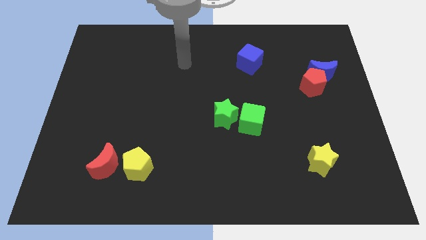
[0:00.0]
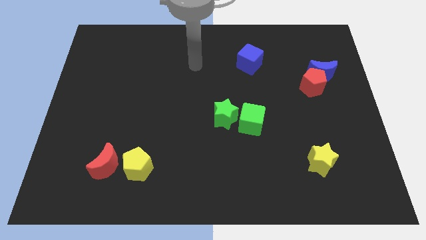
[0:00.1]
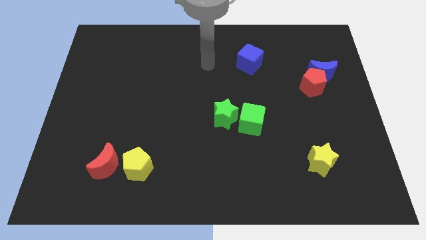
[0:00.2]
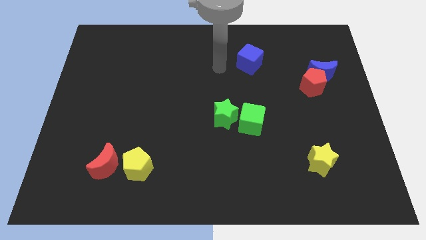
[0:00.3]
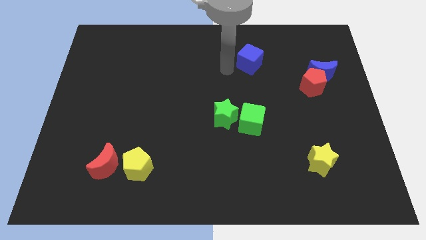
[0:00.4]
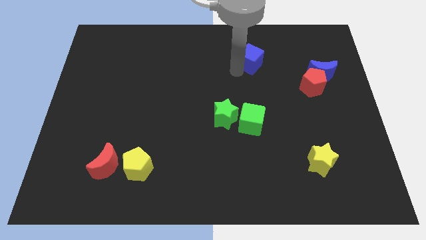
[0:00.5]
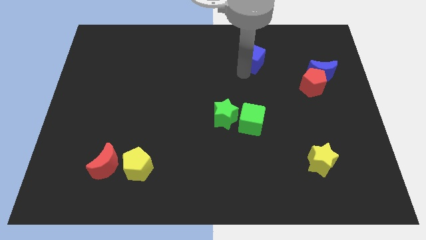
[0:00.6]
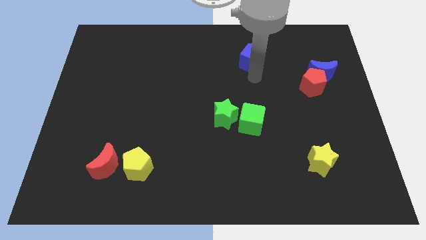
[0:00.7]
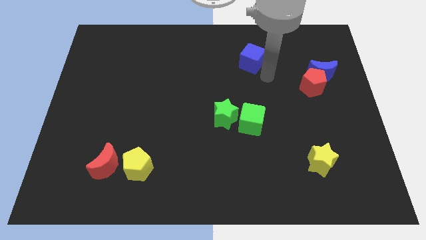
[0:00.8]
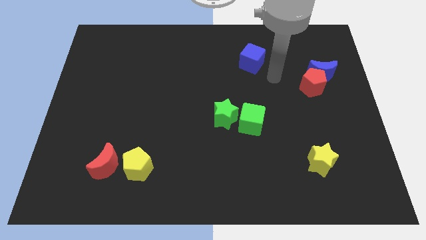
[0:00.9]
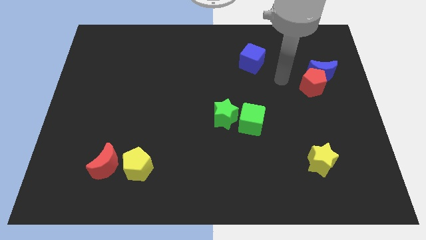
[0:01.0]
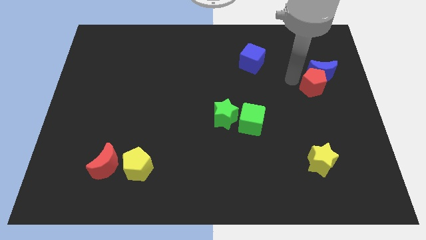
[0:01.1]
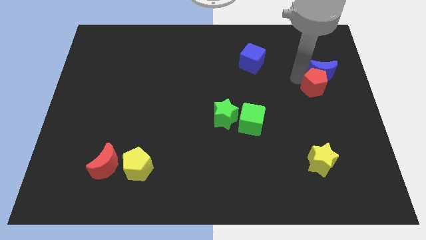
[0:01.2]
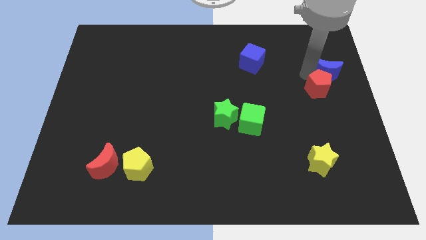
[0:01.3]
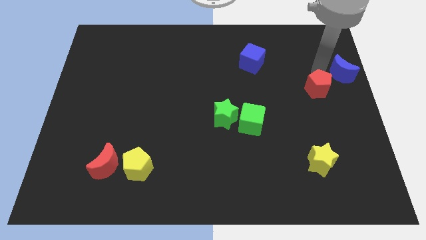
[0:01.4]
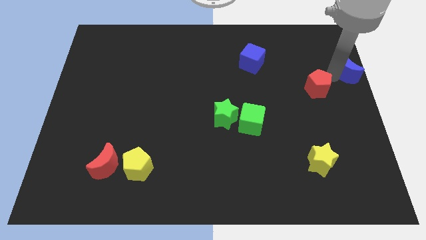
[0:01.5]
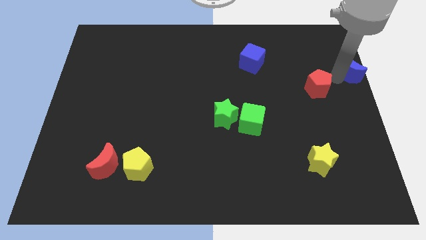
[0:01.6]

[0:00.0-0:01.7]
pull the red pentagon apart from the blue moon

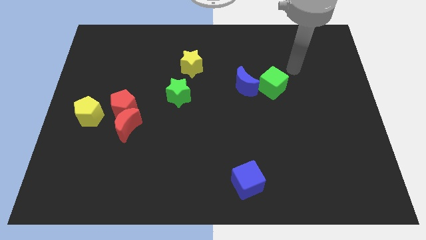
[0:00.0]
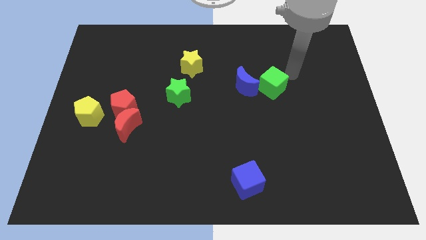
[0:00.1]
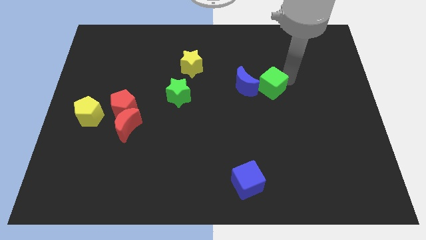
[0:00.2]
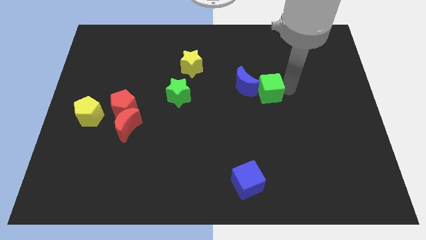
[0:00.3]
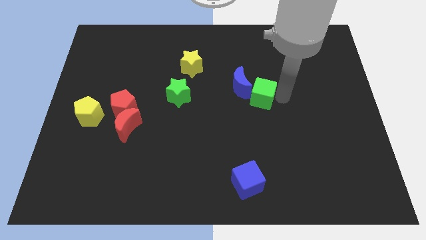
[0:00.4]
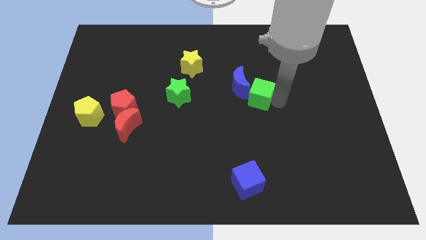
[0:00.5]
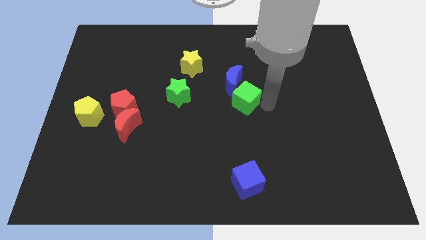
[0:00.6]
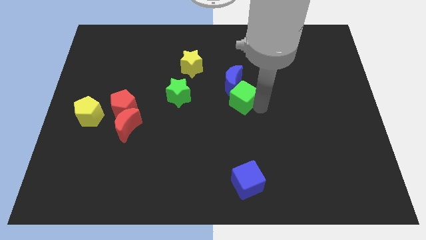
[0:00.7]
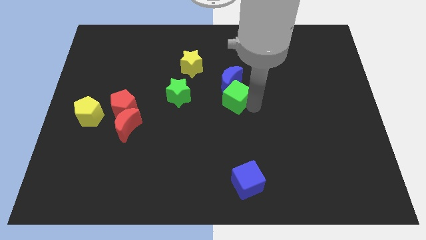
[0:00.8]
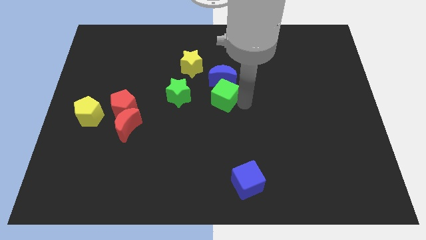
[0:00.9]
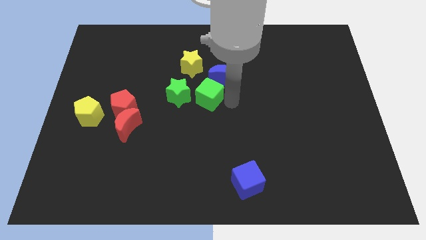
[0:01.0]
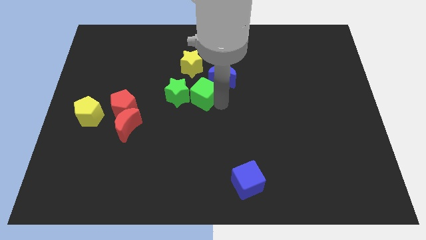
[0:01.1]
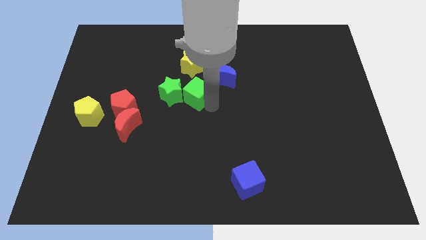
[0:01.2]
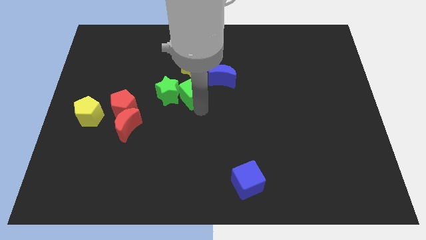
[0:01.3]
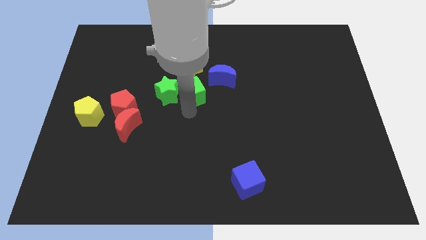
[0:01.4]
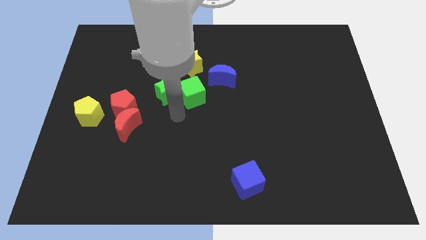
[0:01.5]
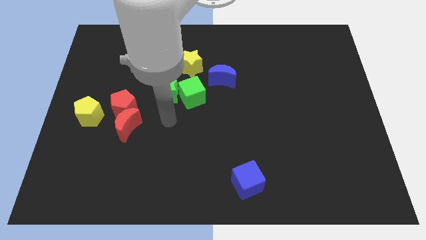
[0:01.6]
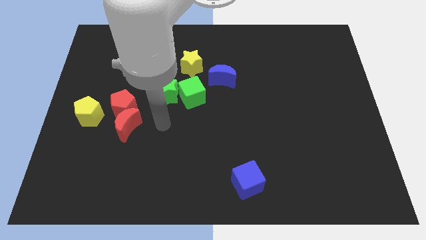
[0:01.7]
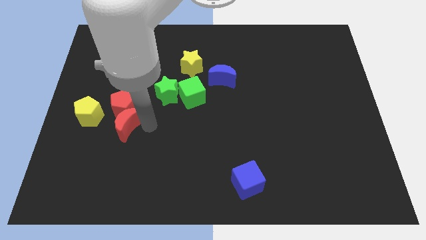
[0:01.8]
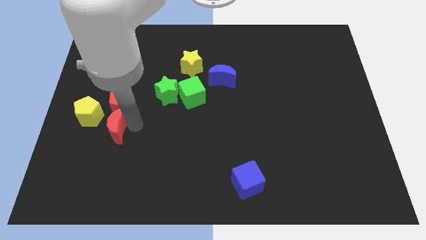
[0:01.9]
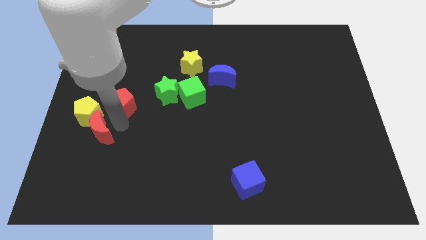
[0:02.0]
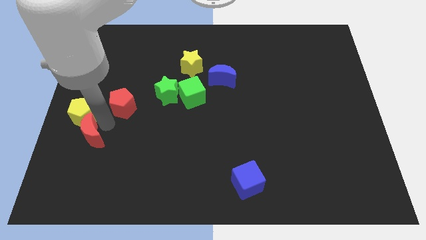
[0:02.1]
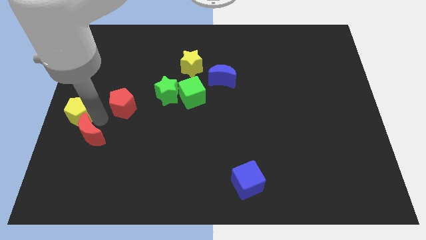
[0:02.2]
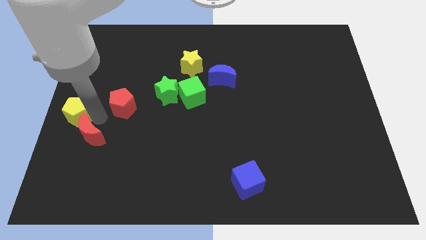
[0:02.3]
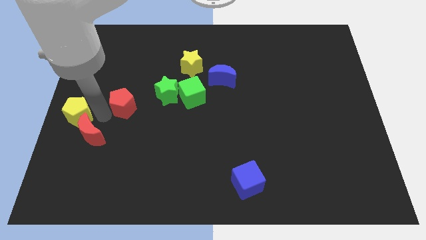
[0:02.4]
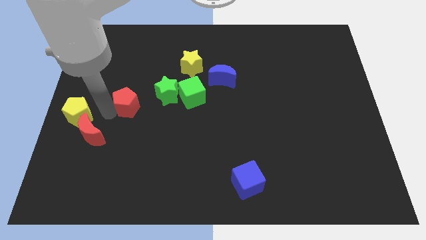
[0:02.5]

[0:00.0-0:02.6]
separate the red pentagon from the red moon and yellow pentagon

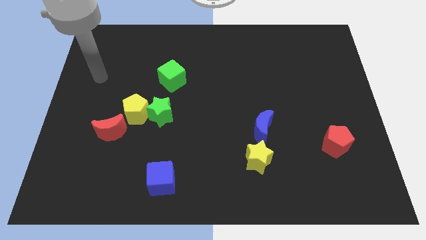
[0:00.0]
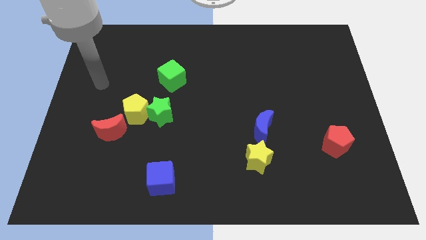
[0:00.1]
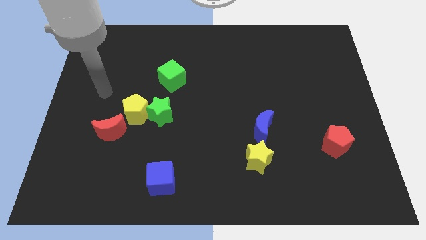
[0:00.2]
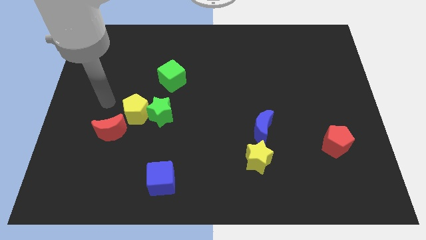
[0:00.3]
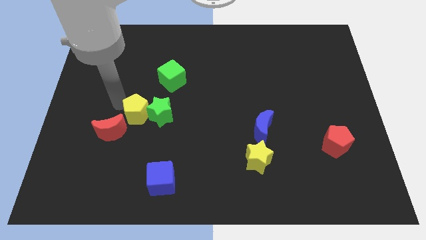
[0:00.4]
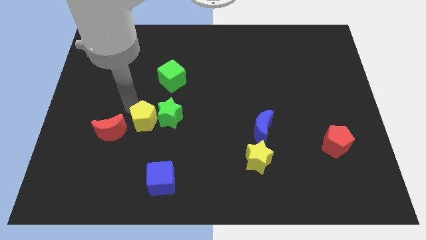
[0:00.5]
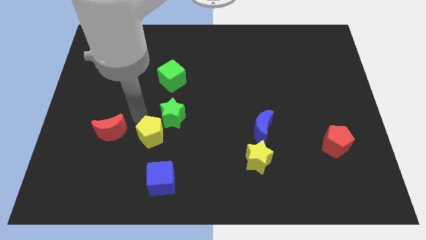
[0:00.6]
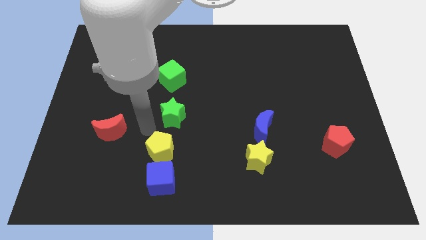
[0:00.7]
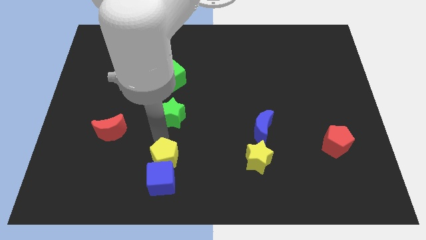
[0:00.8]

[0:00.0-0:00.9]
pull the green star apart from the yellow pentagon

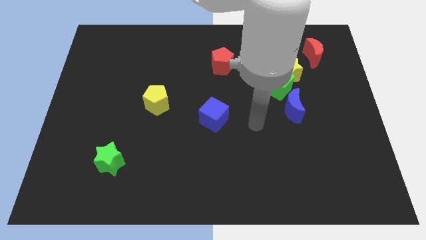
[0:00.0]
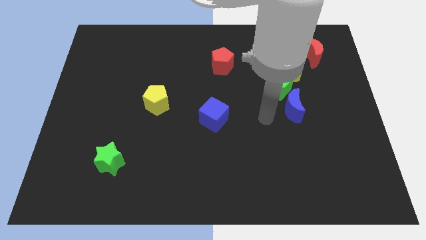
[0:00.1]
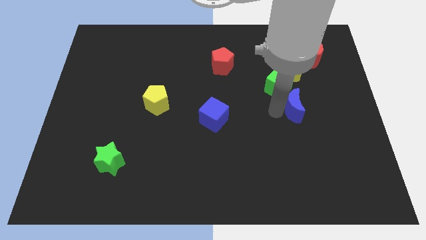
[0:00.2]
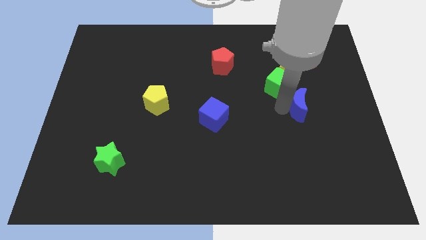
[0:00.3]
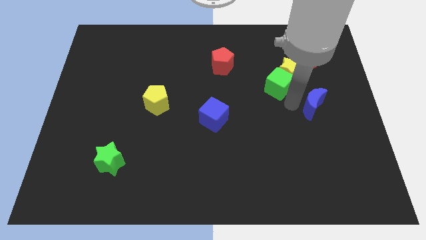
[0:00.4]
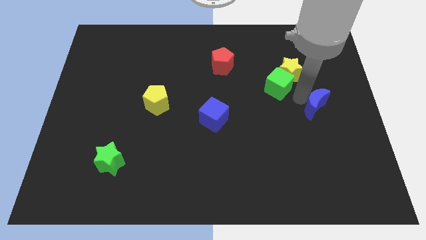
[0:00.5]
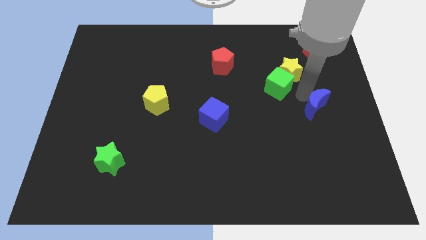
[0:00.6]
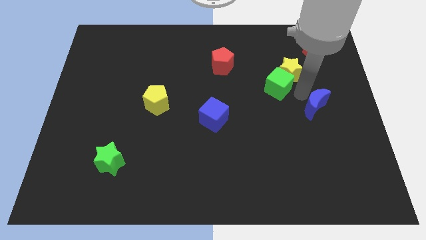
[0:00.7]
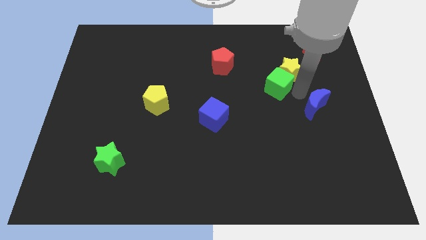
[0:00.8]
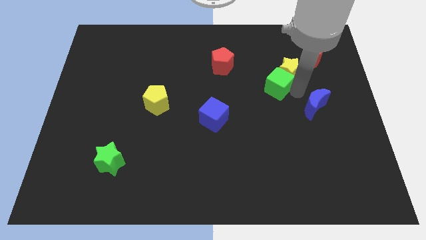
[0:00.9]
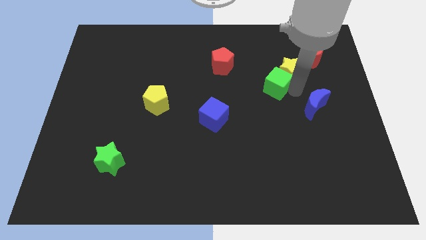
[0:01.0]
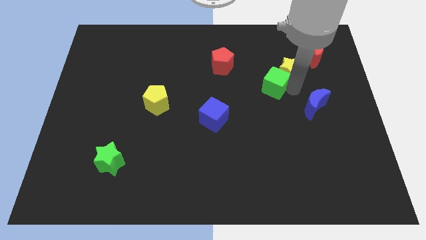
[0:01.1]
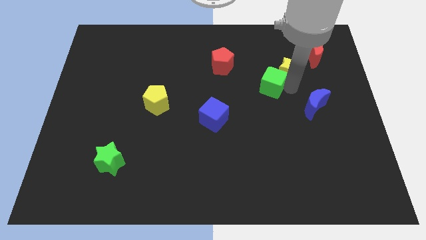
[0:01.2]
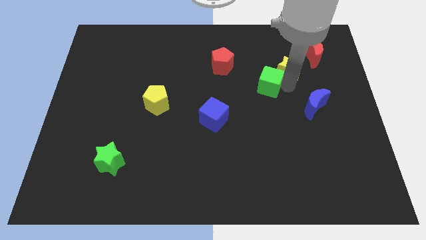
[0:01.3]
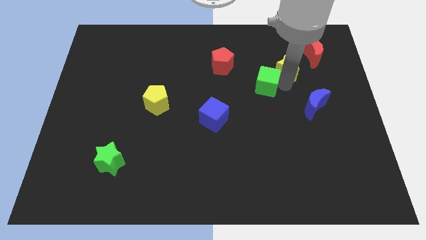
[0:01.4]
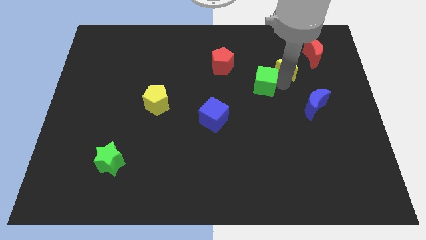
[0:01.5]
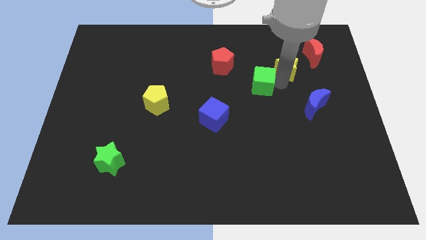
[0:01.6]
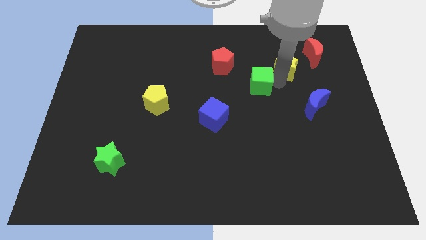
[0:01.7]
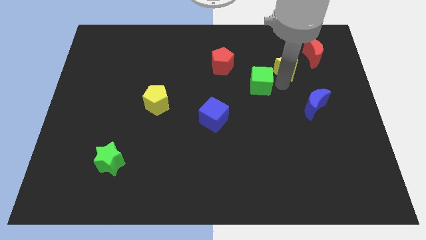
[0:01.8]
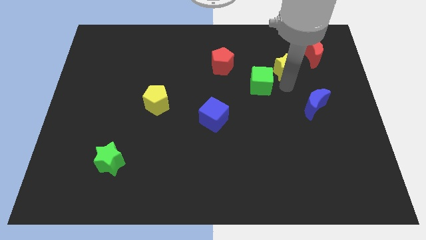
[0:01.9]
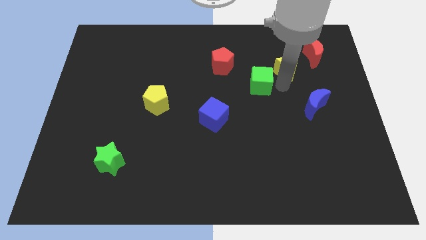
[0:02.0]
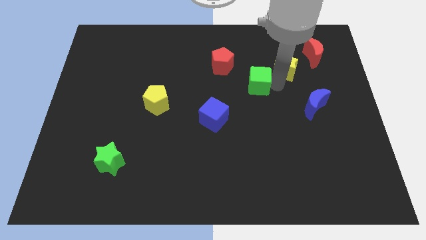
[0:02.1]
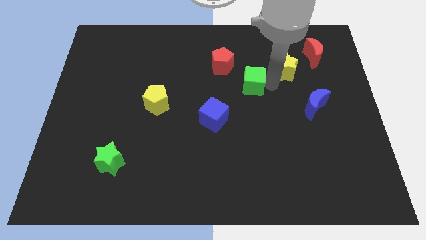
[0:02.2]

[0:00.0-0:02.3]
separate the green cube from the yellow star and blue moon

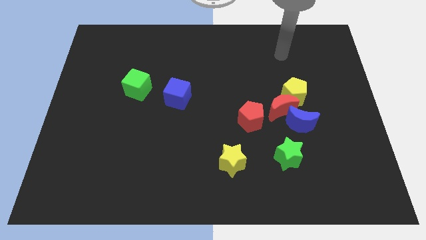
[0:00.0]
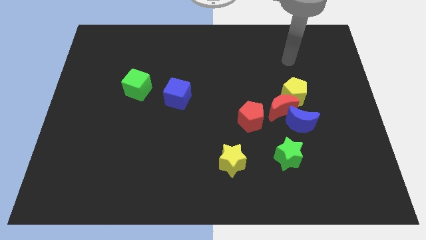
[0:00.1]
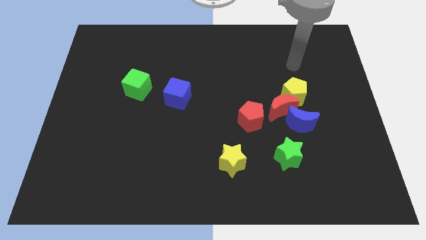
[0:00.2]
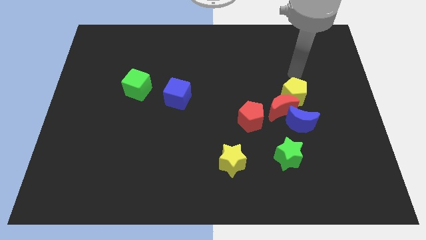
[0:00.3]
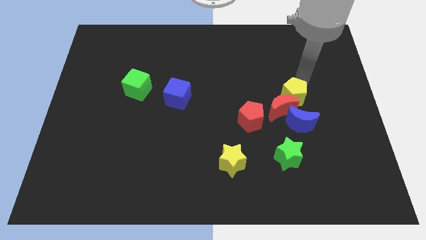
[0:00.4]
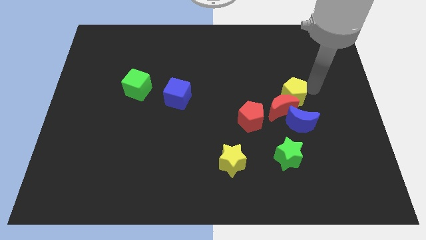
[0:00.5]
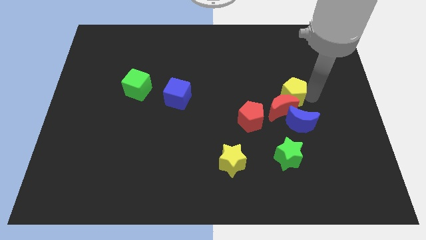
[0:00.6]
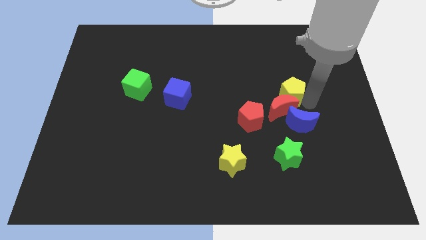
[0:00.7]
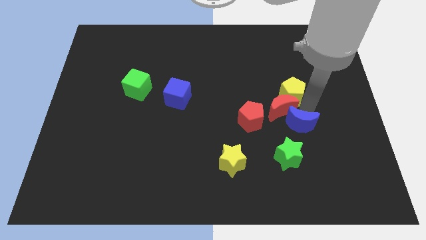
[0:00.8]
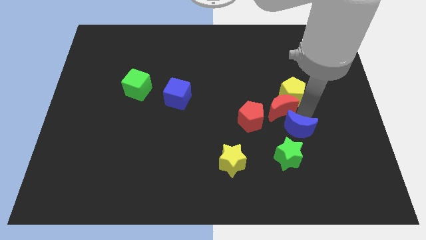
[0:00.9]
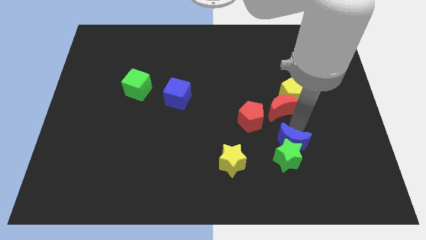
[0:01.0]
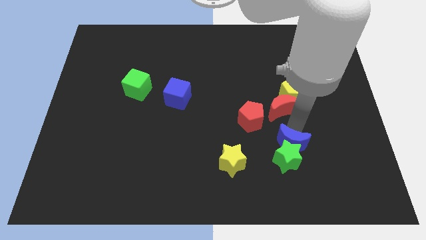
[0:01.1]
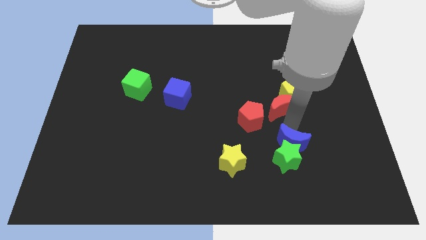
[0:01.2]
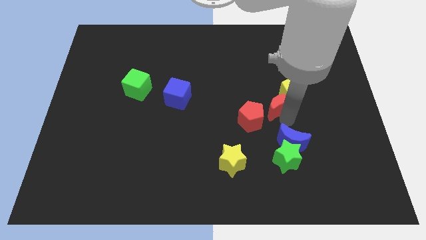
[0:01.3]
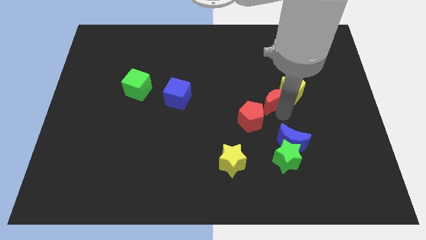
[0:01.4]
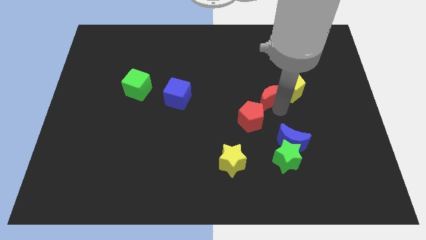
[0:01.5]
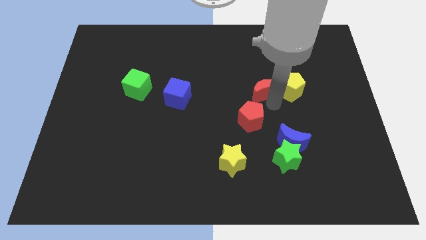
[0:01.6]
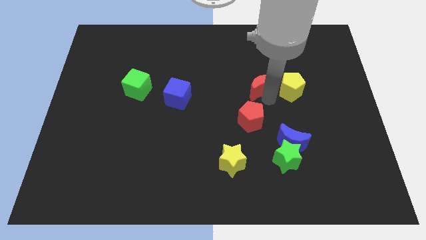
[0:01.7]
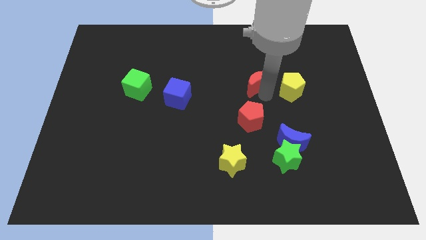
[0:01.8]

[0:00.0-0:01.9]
pull the red moon apart from the yellow pentagon, blue moon, and red pentagon
